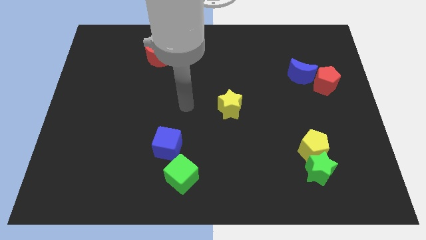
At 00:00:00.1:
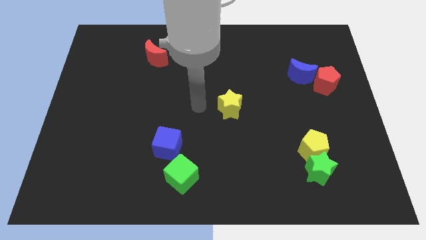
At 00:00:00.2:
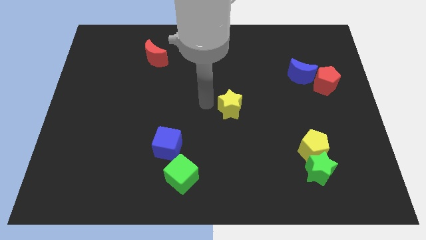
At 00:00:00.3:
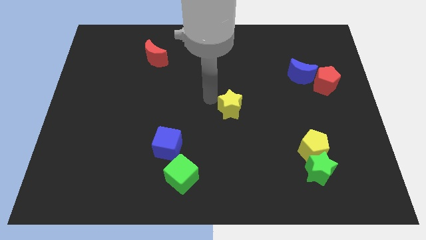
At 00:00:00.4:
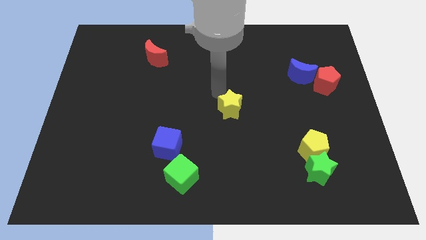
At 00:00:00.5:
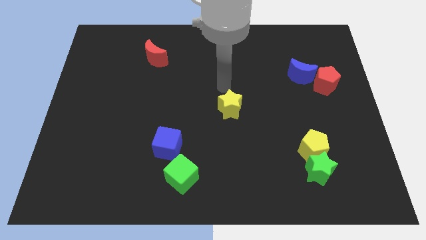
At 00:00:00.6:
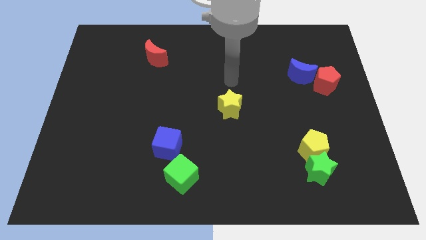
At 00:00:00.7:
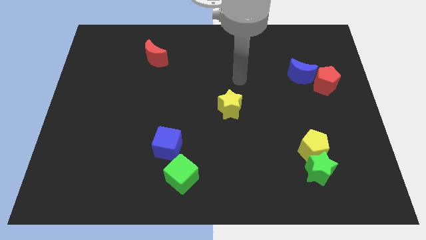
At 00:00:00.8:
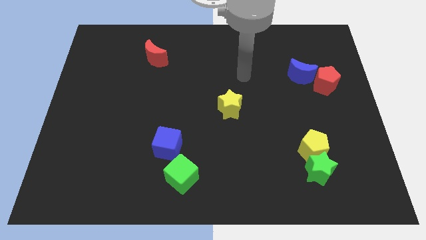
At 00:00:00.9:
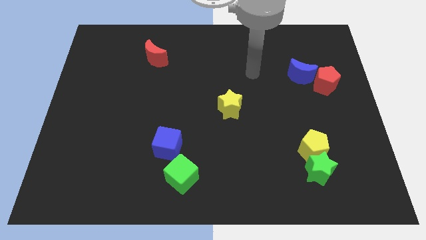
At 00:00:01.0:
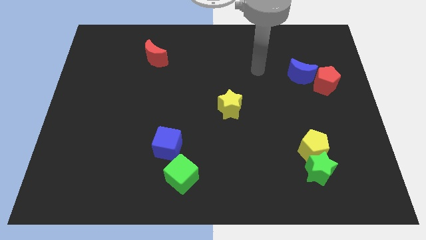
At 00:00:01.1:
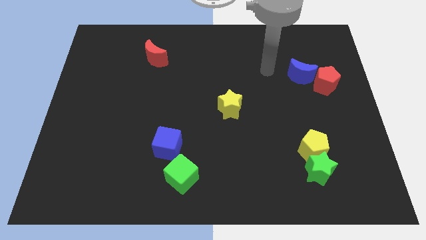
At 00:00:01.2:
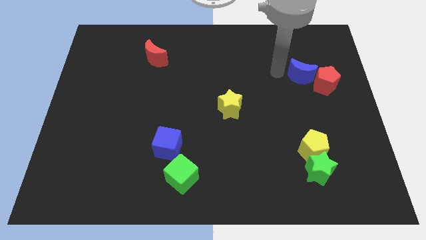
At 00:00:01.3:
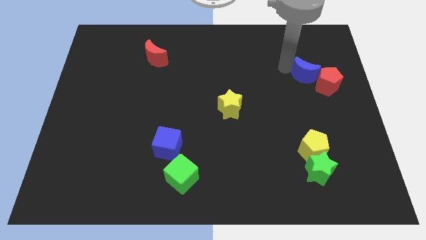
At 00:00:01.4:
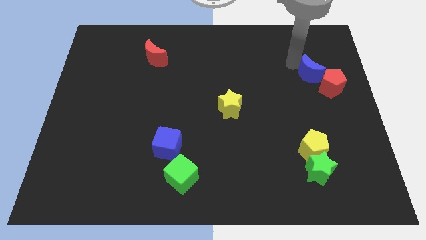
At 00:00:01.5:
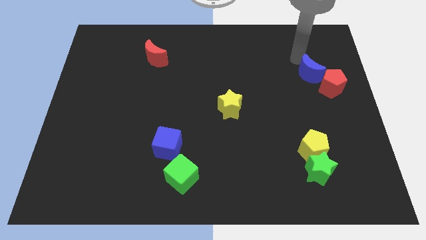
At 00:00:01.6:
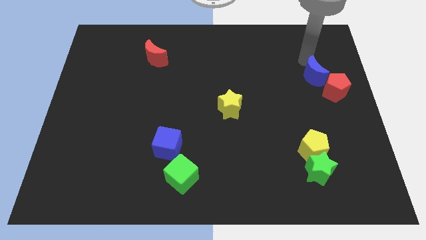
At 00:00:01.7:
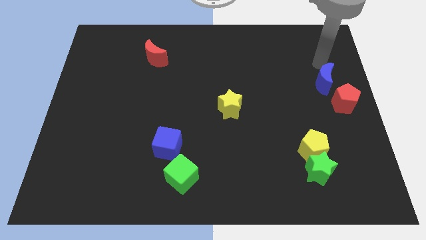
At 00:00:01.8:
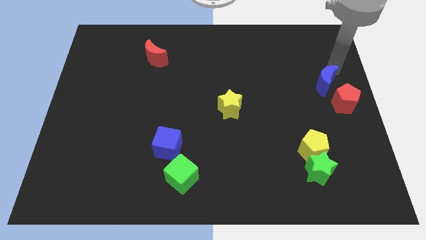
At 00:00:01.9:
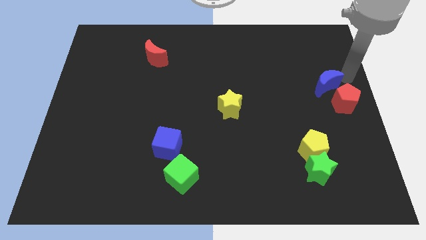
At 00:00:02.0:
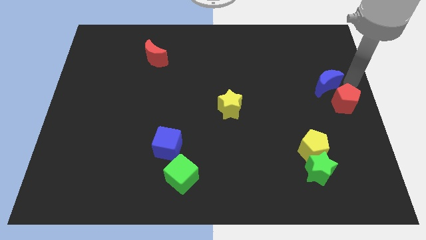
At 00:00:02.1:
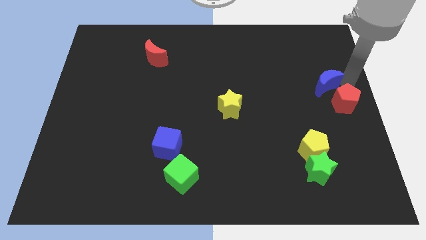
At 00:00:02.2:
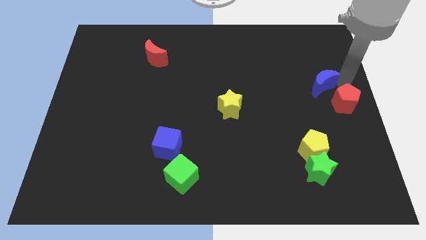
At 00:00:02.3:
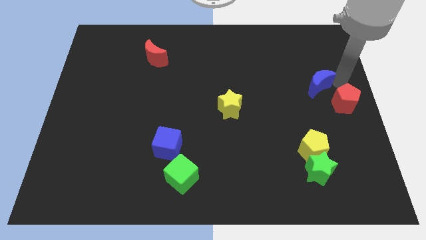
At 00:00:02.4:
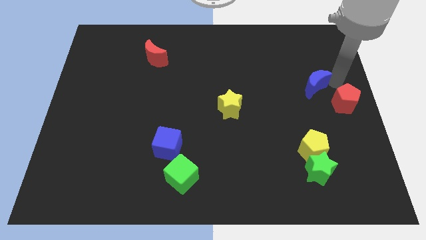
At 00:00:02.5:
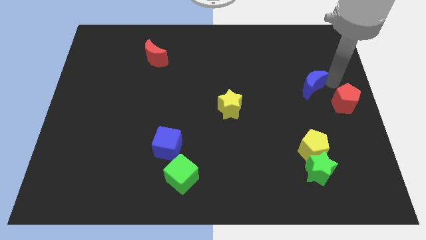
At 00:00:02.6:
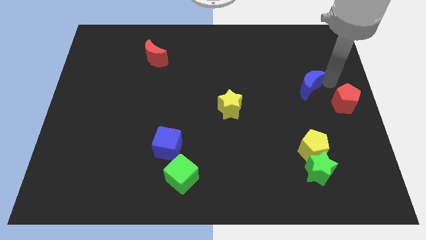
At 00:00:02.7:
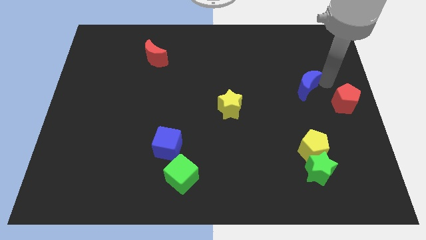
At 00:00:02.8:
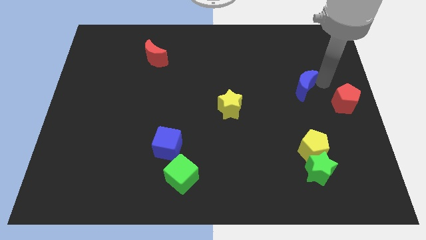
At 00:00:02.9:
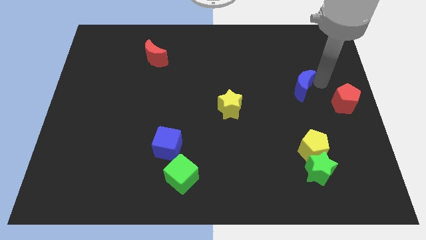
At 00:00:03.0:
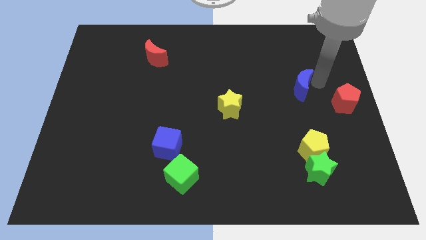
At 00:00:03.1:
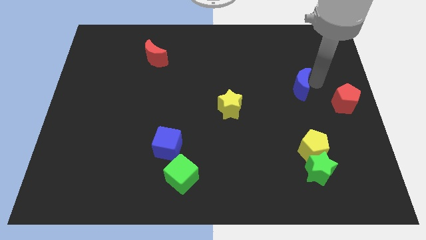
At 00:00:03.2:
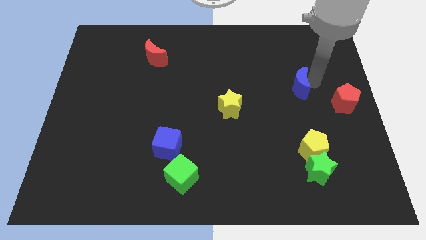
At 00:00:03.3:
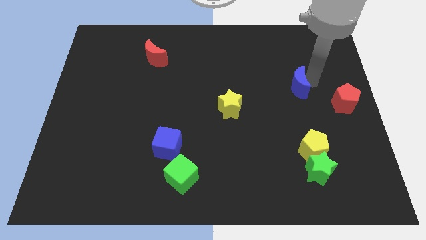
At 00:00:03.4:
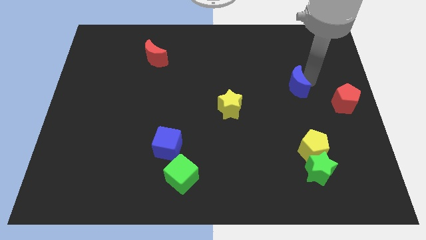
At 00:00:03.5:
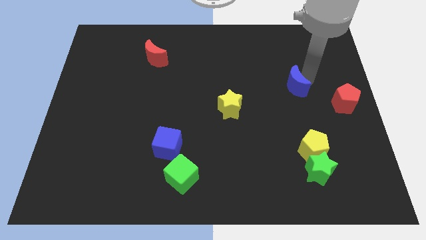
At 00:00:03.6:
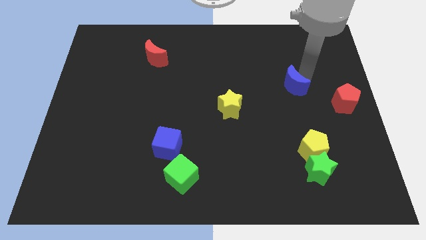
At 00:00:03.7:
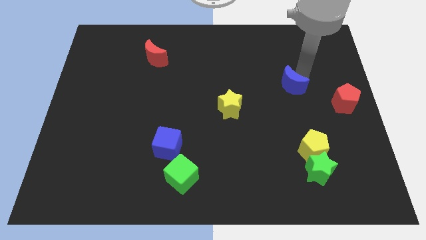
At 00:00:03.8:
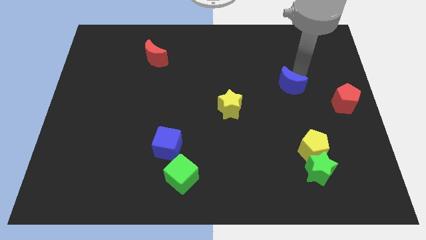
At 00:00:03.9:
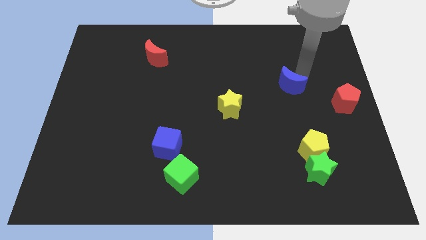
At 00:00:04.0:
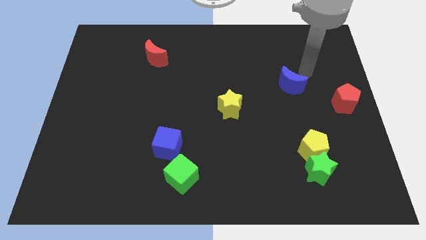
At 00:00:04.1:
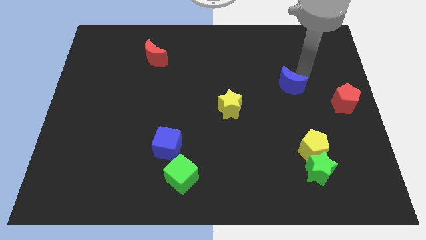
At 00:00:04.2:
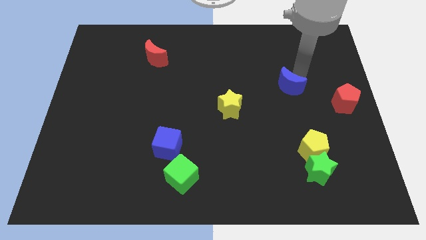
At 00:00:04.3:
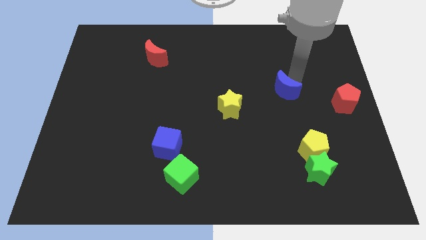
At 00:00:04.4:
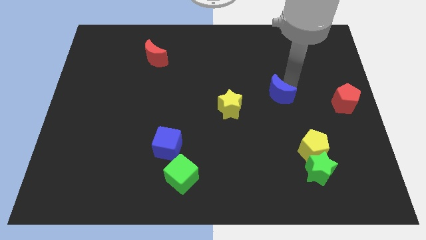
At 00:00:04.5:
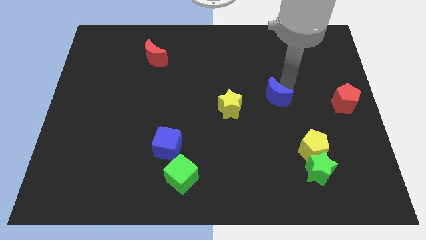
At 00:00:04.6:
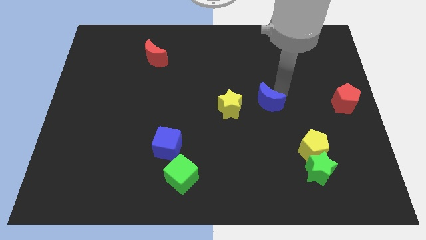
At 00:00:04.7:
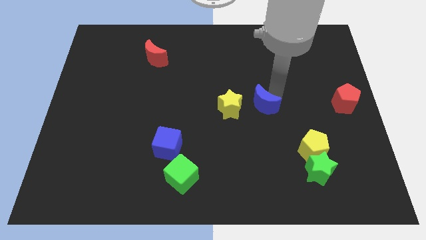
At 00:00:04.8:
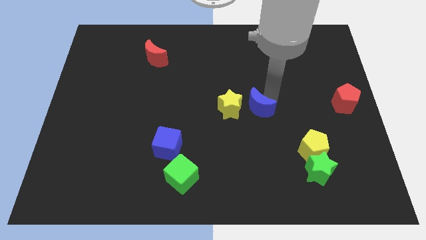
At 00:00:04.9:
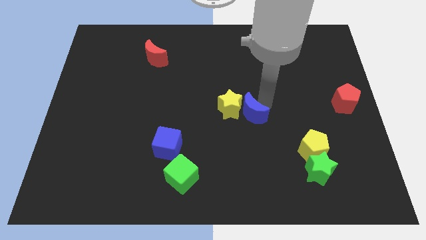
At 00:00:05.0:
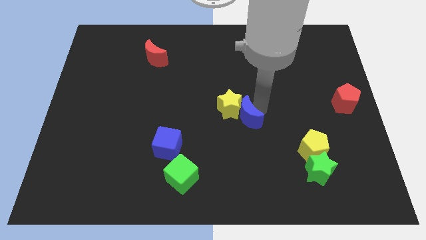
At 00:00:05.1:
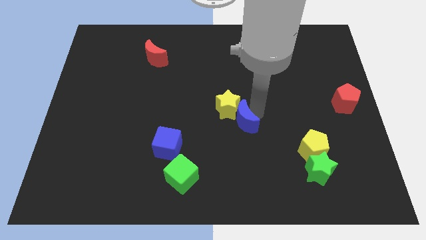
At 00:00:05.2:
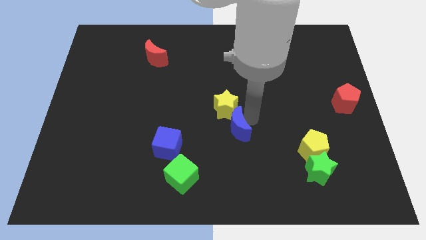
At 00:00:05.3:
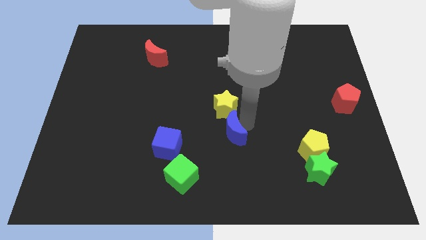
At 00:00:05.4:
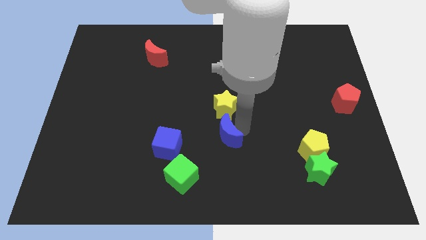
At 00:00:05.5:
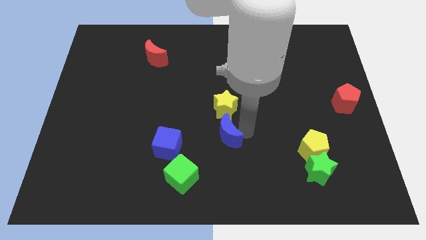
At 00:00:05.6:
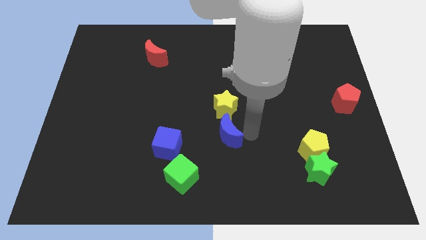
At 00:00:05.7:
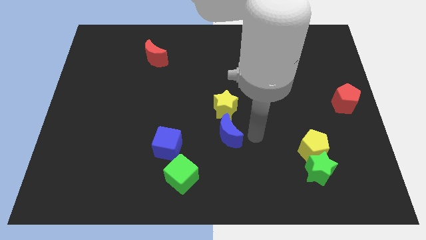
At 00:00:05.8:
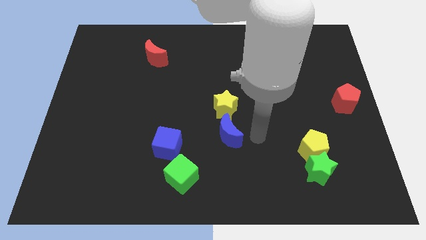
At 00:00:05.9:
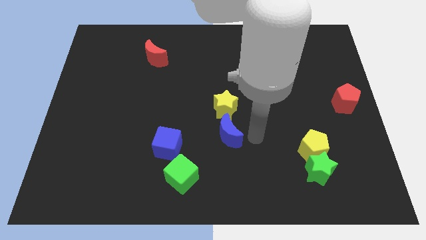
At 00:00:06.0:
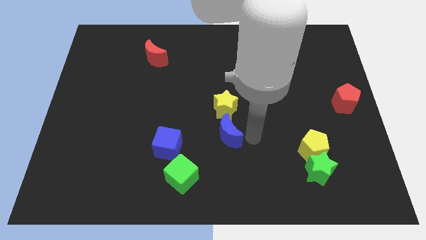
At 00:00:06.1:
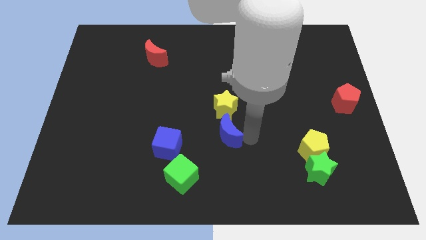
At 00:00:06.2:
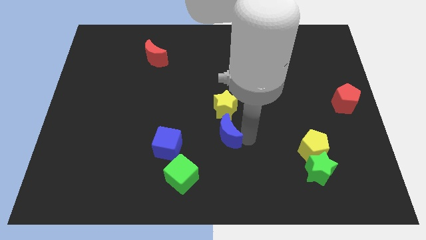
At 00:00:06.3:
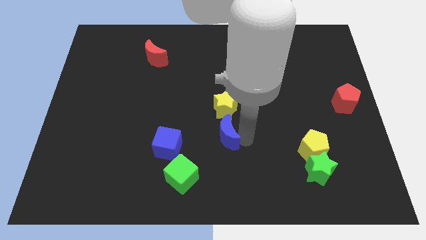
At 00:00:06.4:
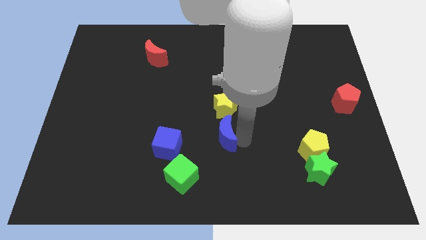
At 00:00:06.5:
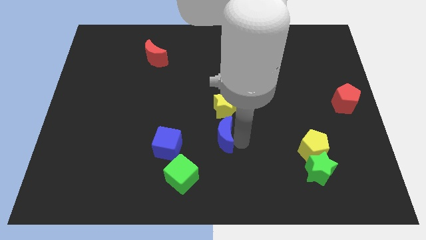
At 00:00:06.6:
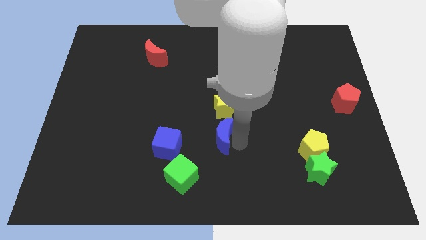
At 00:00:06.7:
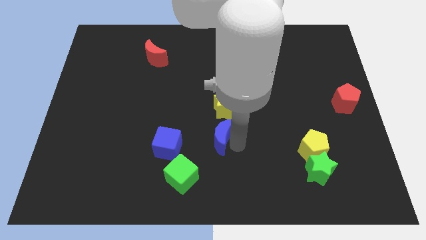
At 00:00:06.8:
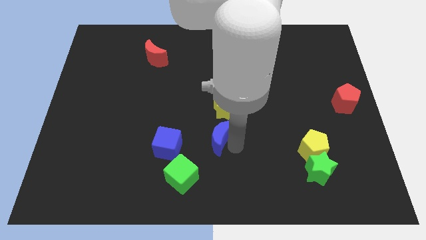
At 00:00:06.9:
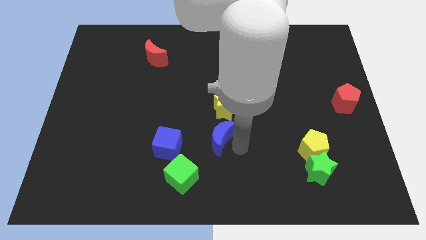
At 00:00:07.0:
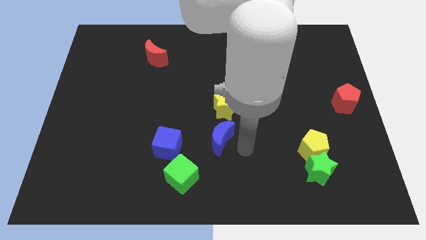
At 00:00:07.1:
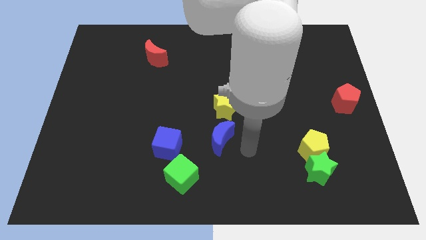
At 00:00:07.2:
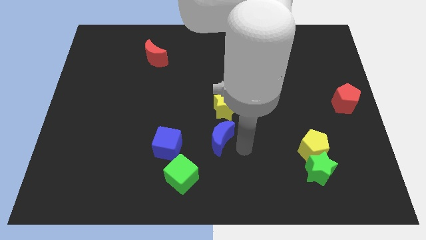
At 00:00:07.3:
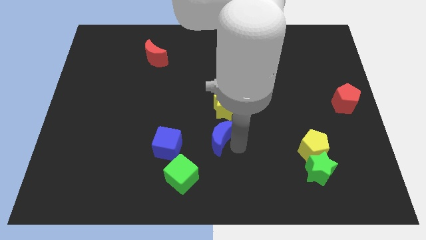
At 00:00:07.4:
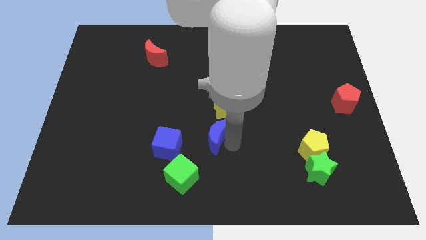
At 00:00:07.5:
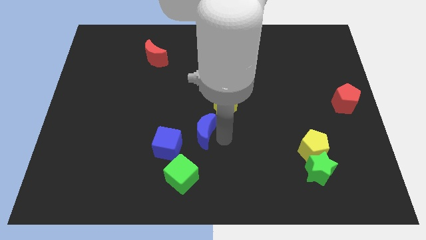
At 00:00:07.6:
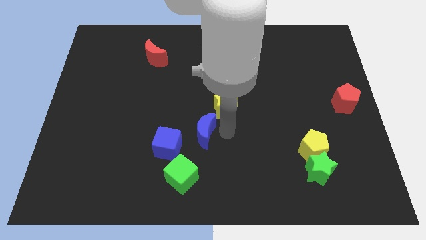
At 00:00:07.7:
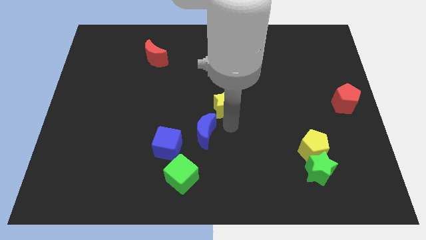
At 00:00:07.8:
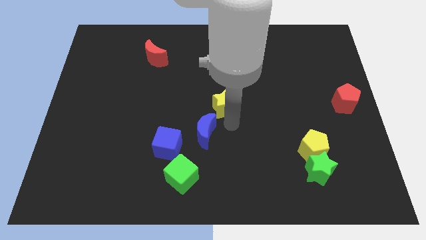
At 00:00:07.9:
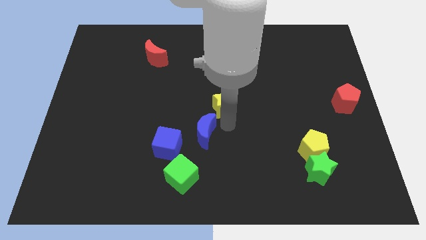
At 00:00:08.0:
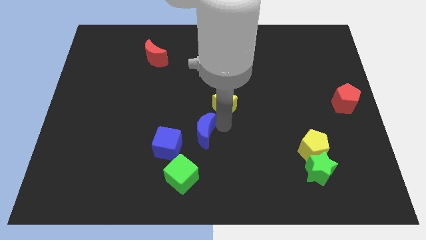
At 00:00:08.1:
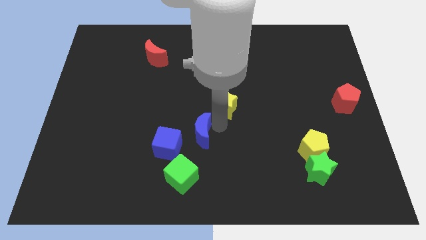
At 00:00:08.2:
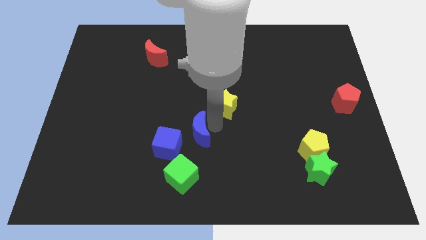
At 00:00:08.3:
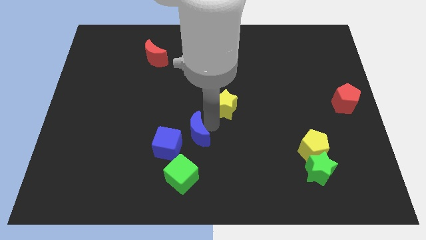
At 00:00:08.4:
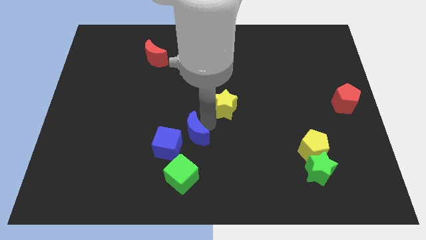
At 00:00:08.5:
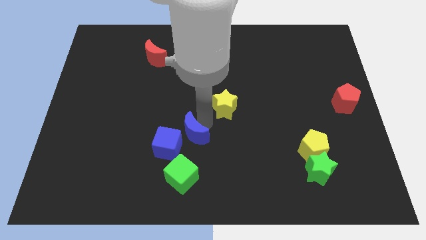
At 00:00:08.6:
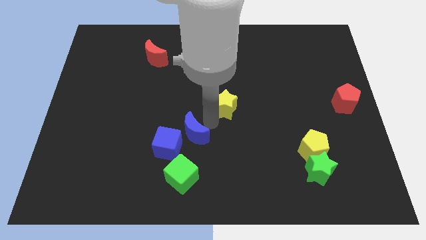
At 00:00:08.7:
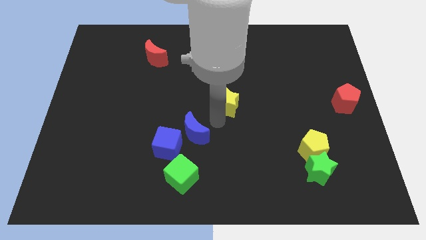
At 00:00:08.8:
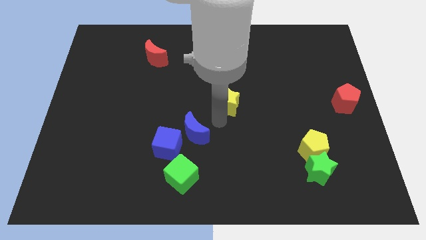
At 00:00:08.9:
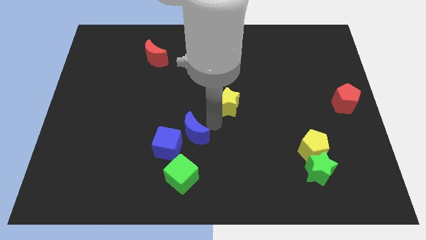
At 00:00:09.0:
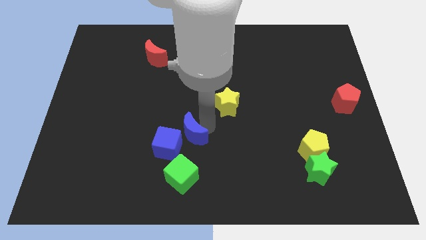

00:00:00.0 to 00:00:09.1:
put the blue moon next to the blue cube
